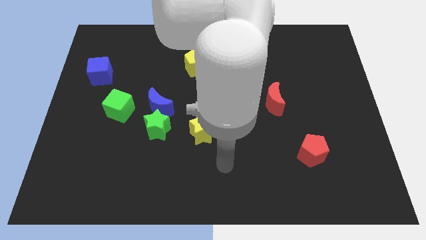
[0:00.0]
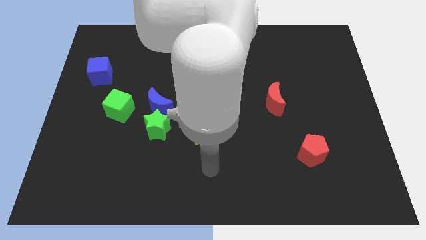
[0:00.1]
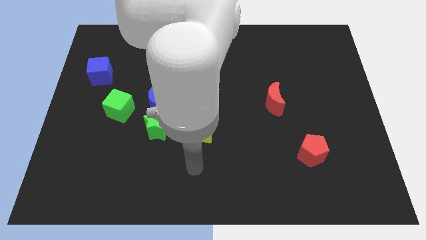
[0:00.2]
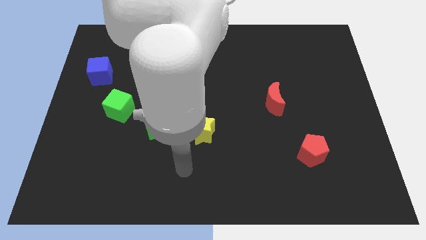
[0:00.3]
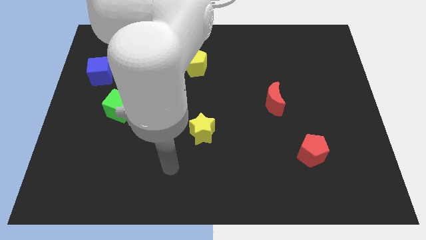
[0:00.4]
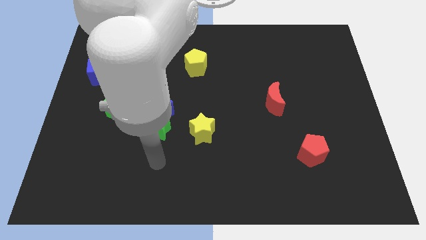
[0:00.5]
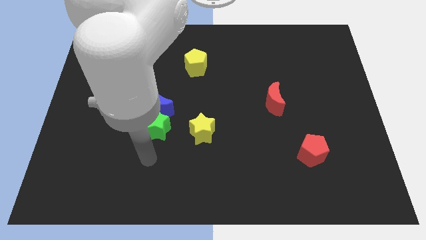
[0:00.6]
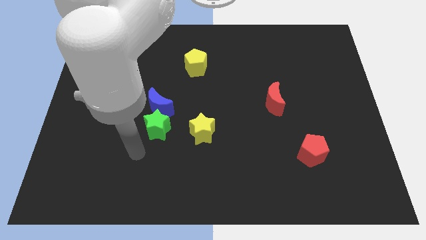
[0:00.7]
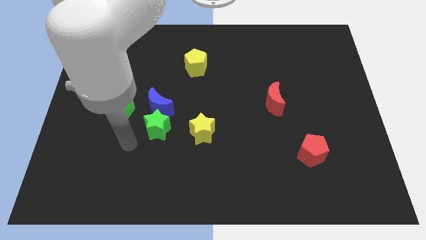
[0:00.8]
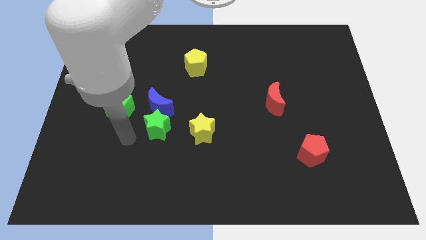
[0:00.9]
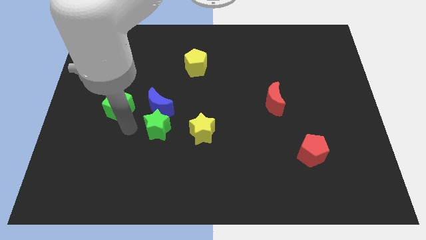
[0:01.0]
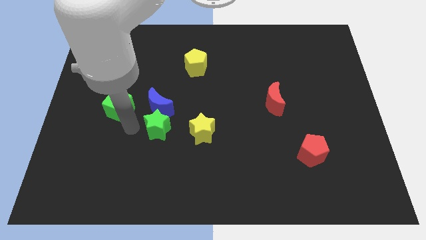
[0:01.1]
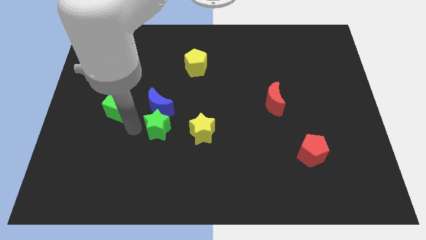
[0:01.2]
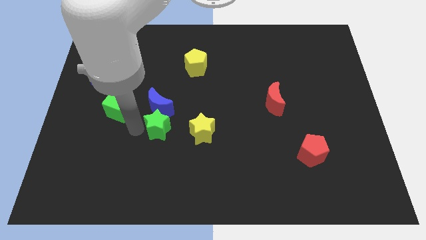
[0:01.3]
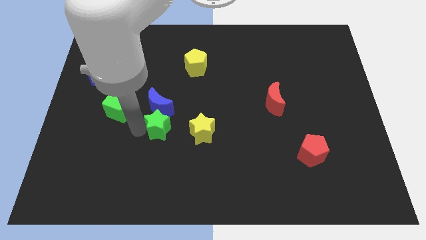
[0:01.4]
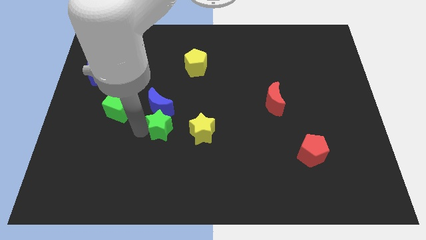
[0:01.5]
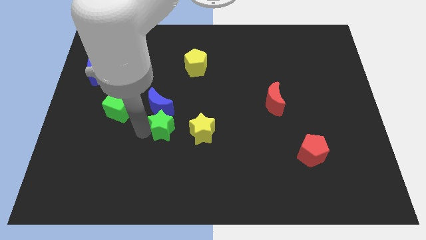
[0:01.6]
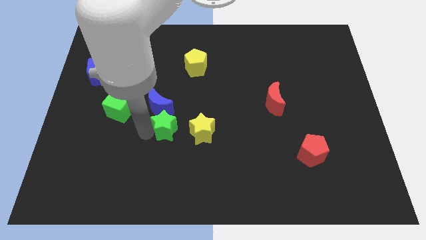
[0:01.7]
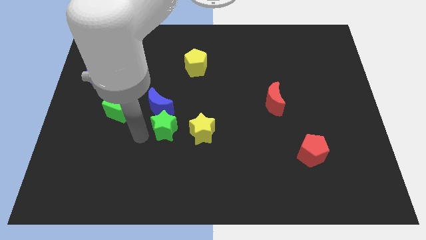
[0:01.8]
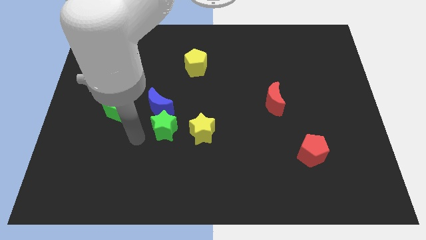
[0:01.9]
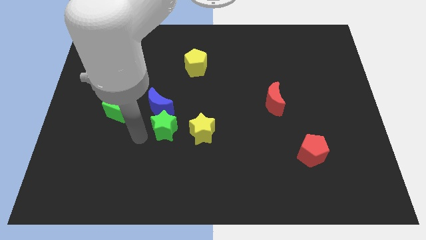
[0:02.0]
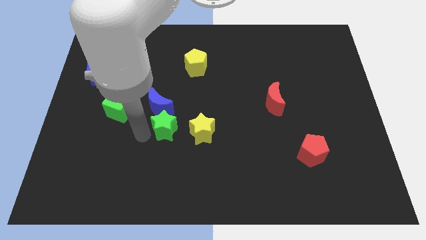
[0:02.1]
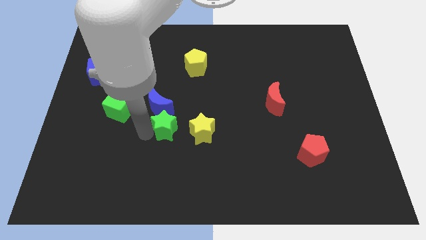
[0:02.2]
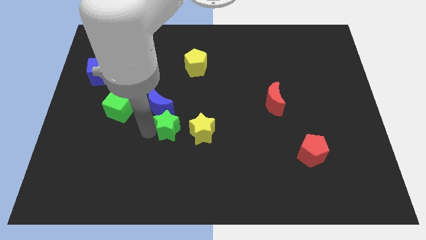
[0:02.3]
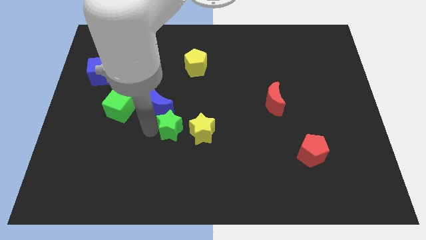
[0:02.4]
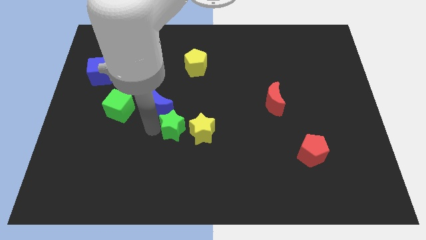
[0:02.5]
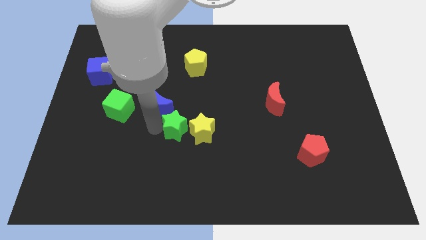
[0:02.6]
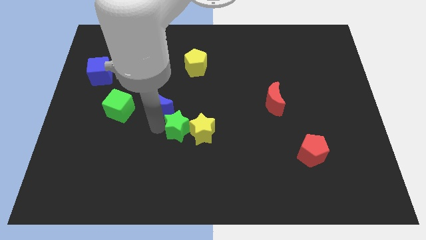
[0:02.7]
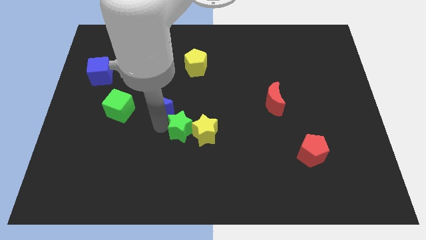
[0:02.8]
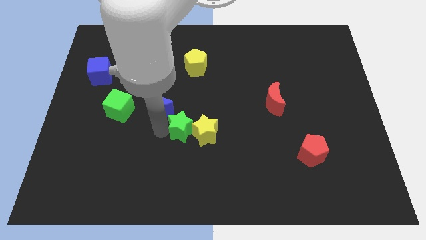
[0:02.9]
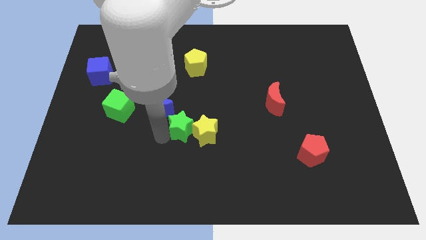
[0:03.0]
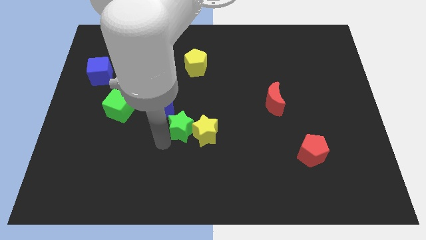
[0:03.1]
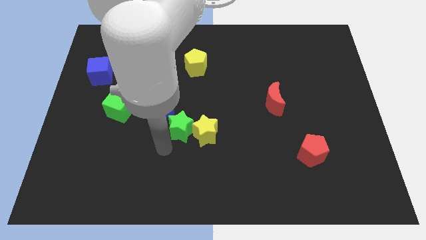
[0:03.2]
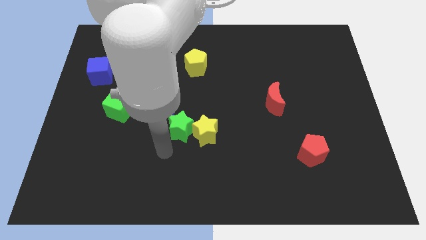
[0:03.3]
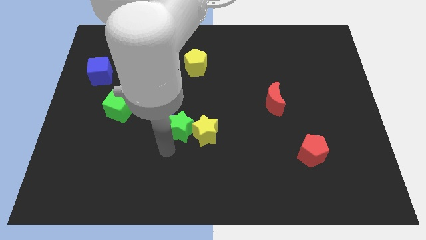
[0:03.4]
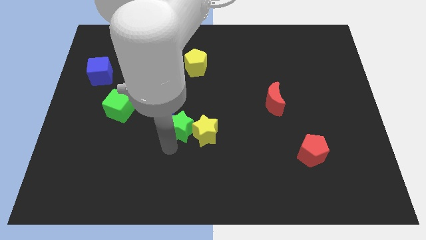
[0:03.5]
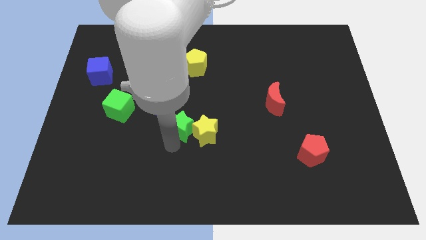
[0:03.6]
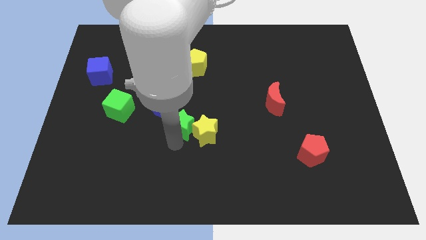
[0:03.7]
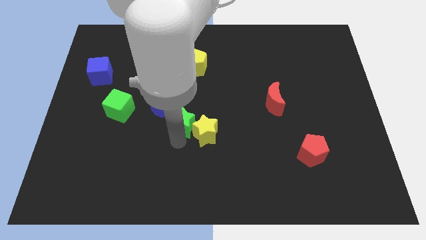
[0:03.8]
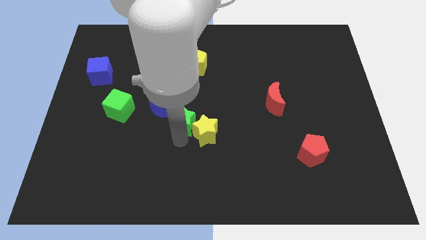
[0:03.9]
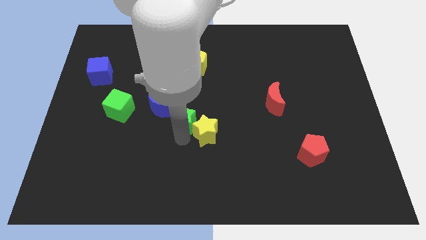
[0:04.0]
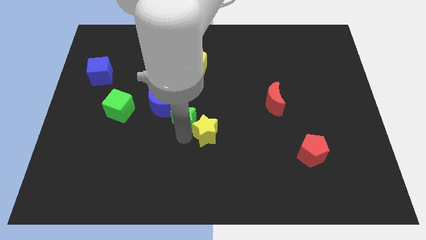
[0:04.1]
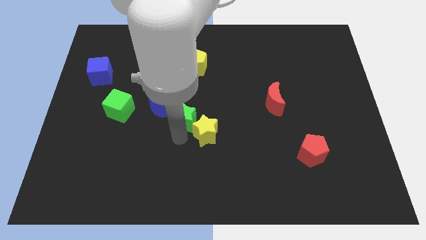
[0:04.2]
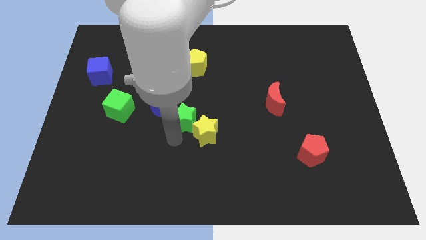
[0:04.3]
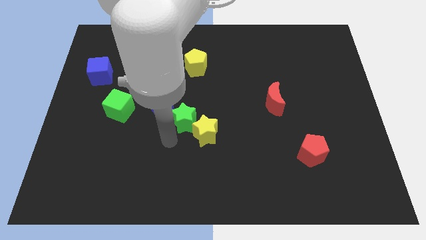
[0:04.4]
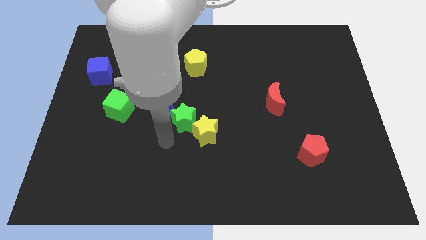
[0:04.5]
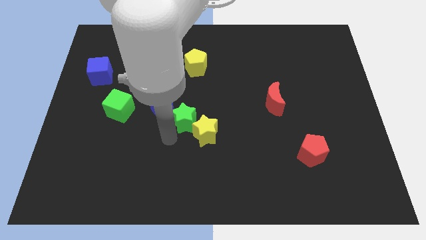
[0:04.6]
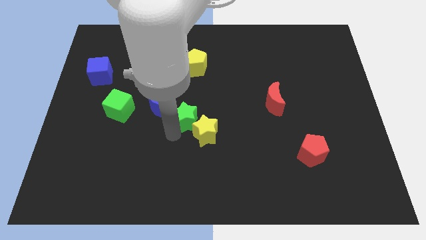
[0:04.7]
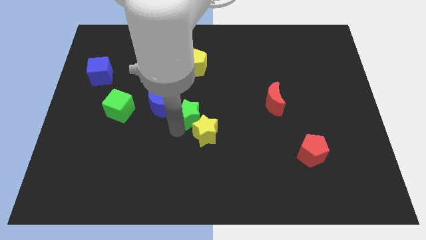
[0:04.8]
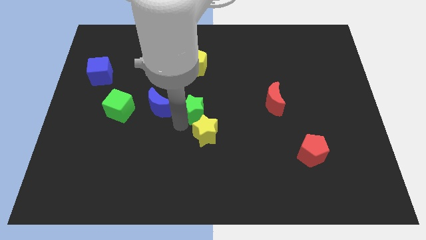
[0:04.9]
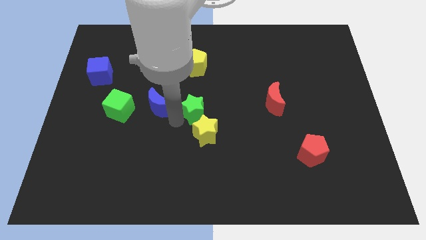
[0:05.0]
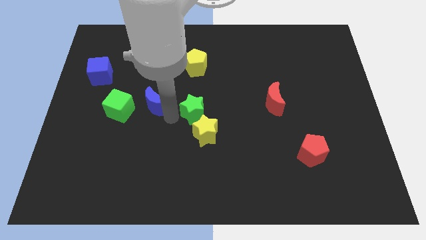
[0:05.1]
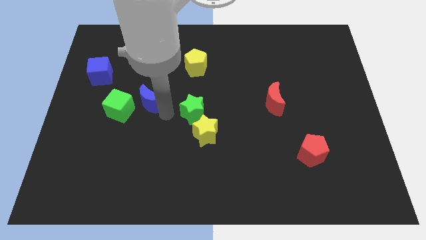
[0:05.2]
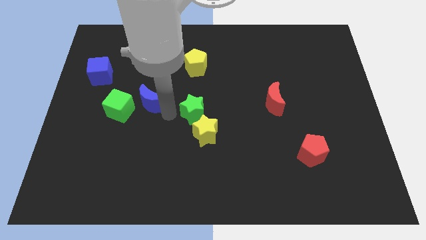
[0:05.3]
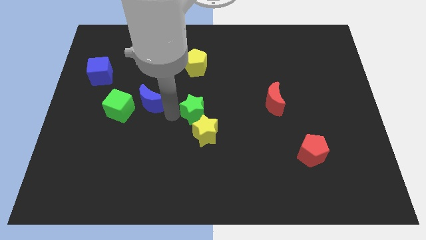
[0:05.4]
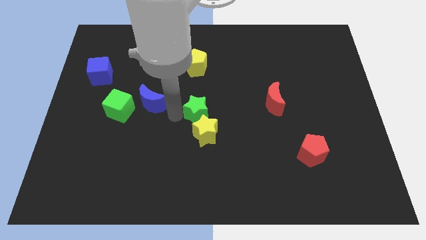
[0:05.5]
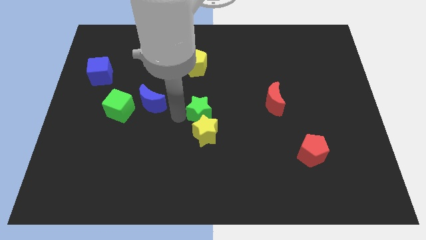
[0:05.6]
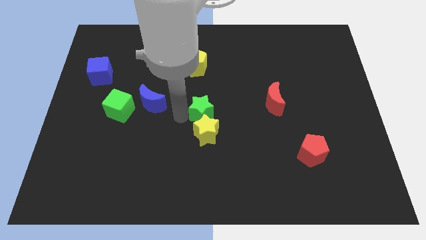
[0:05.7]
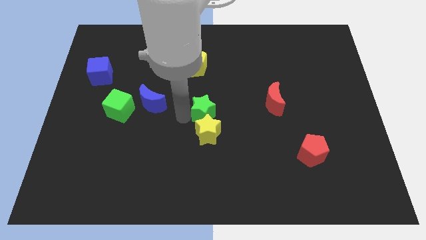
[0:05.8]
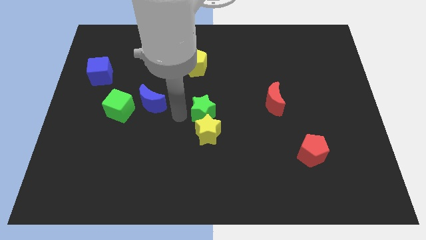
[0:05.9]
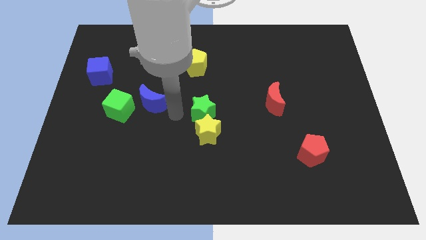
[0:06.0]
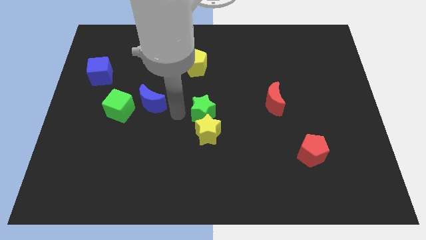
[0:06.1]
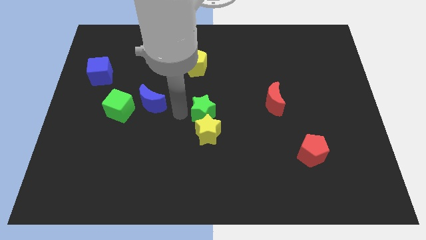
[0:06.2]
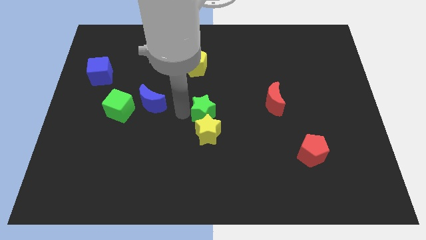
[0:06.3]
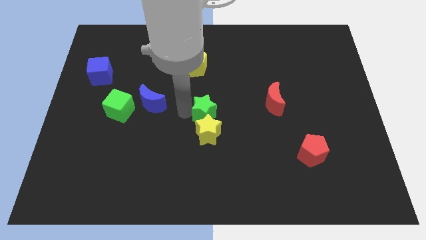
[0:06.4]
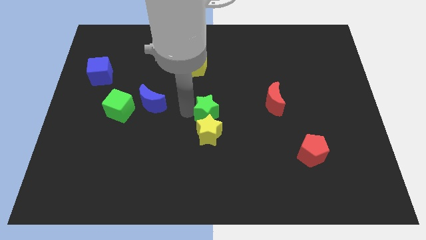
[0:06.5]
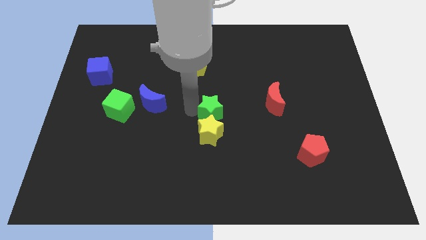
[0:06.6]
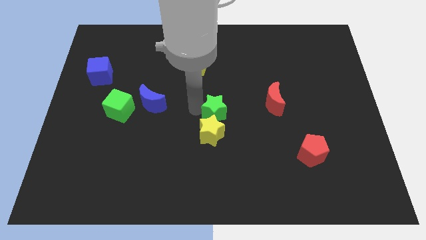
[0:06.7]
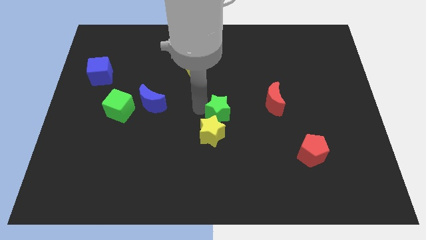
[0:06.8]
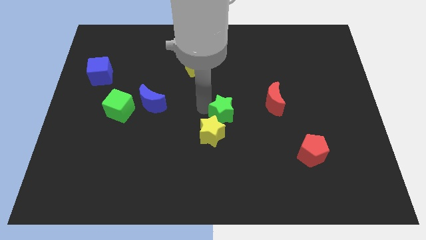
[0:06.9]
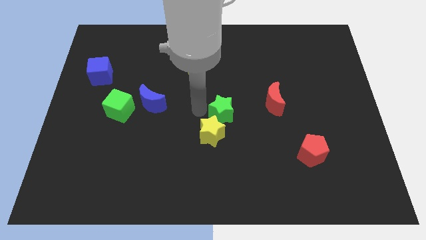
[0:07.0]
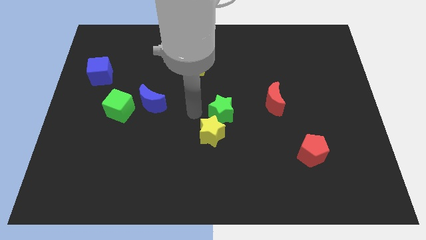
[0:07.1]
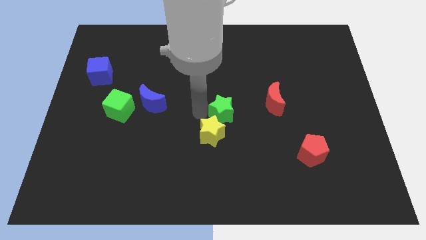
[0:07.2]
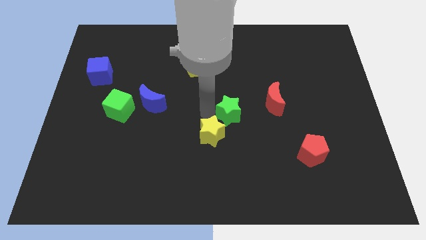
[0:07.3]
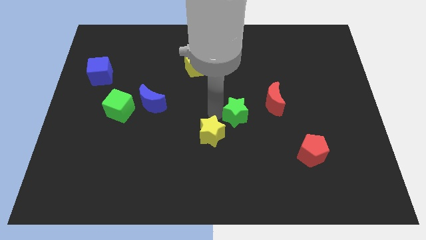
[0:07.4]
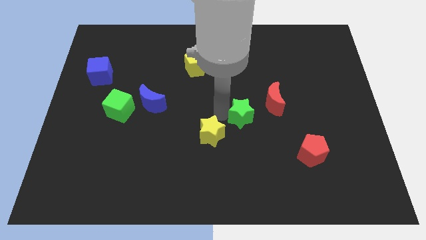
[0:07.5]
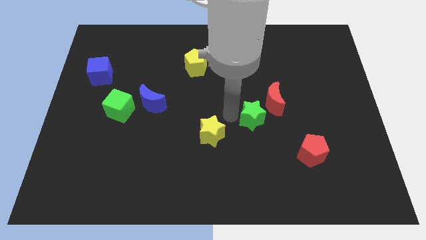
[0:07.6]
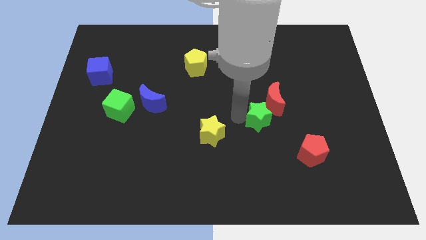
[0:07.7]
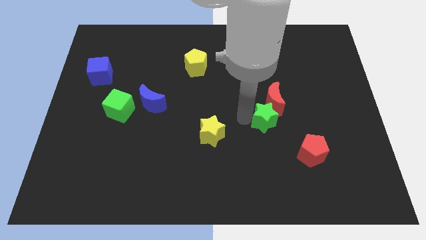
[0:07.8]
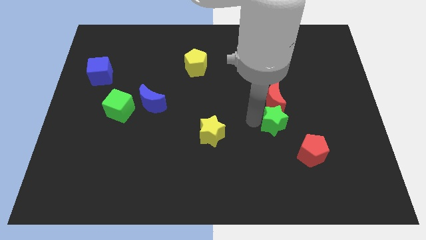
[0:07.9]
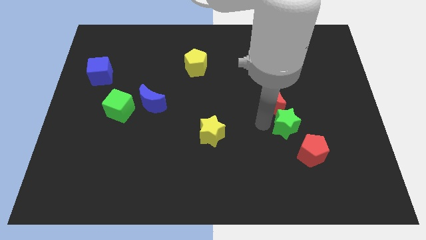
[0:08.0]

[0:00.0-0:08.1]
put the green star to the top side of the red pentagon
